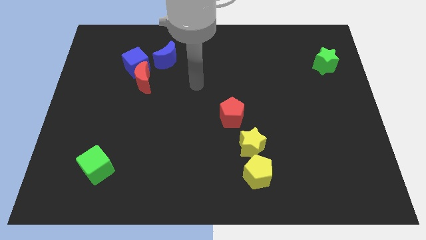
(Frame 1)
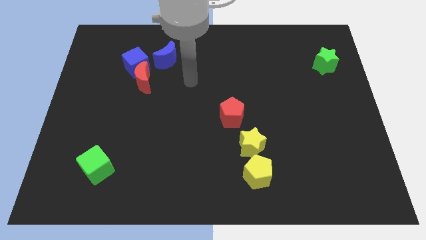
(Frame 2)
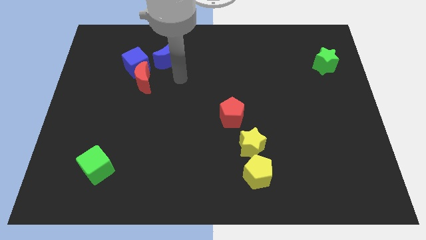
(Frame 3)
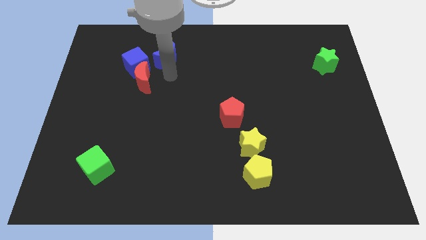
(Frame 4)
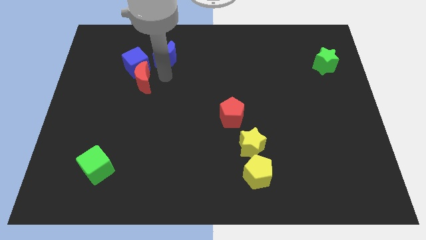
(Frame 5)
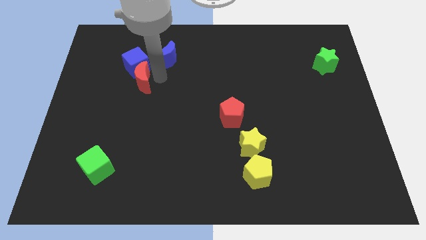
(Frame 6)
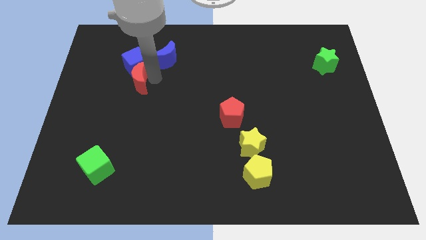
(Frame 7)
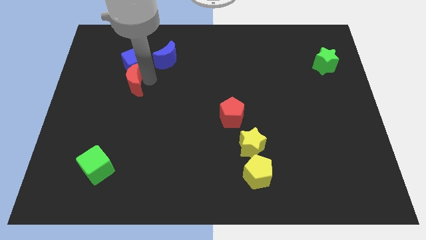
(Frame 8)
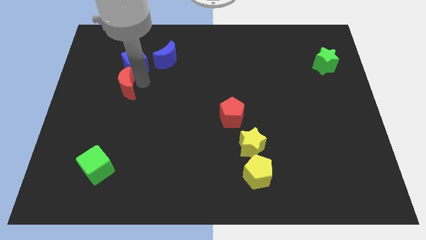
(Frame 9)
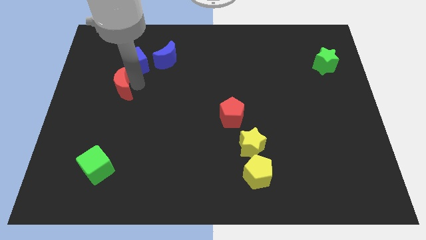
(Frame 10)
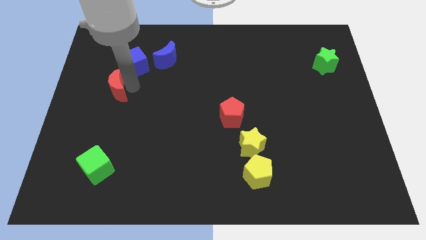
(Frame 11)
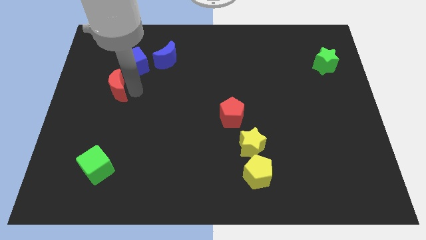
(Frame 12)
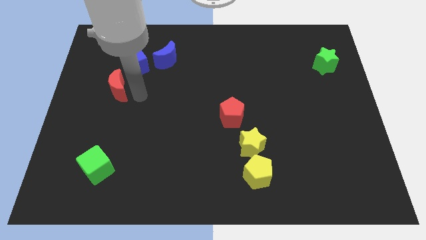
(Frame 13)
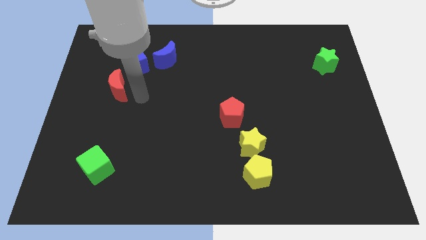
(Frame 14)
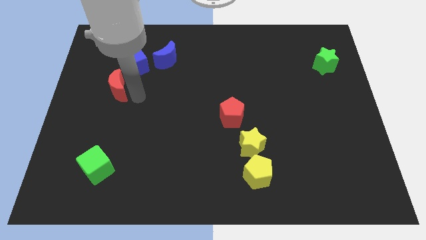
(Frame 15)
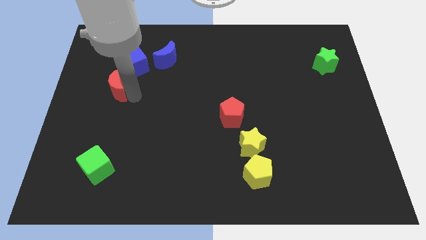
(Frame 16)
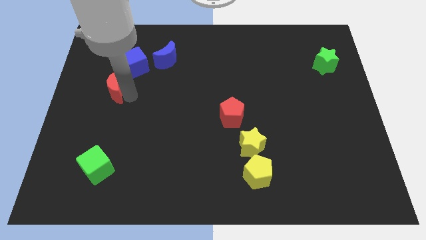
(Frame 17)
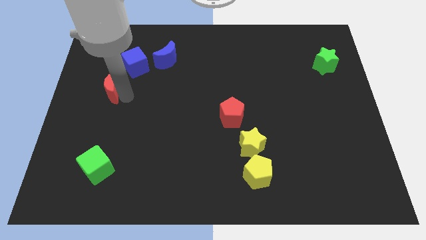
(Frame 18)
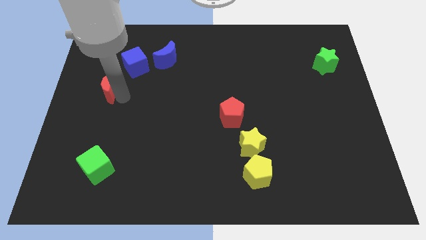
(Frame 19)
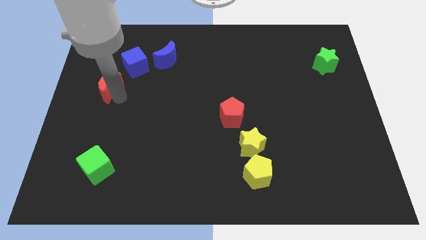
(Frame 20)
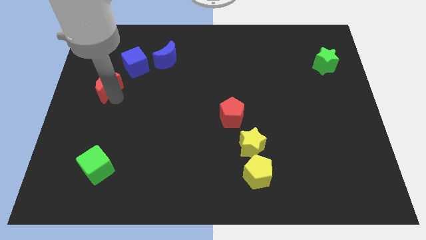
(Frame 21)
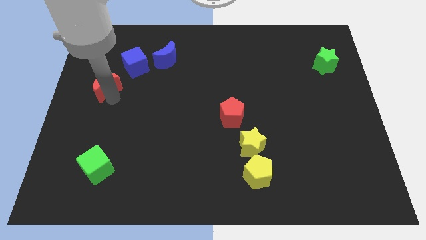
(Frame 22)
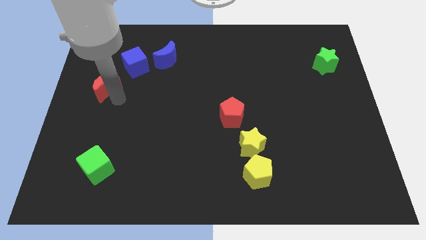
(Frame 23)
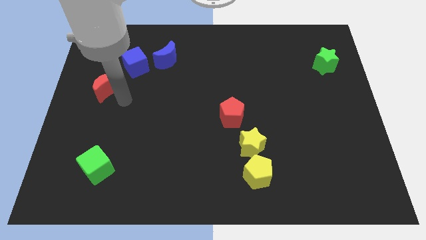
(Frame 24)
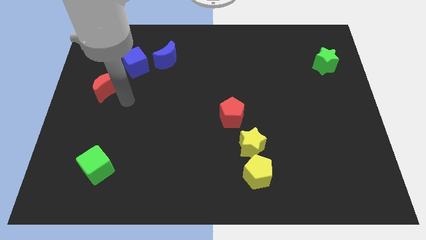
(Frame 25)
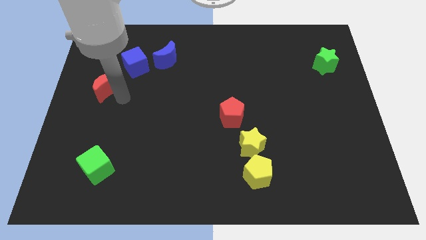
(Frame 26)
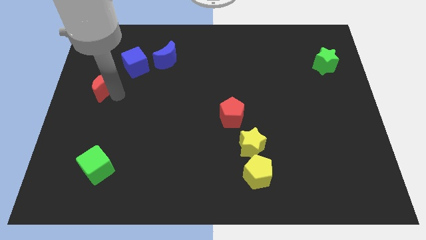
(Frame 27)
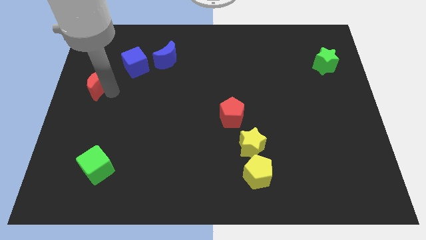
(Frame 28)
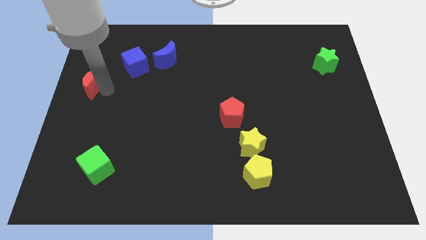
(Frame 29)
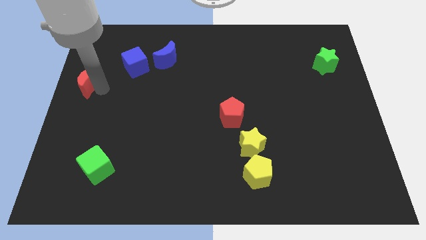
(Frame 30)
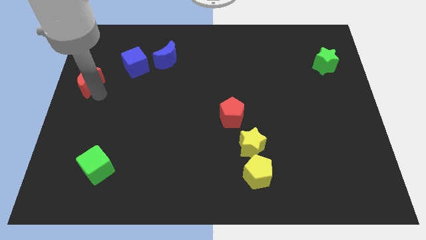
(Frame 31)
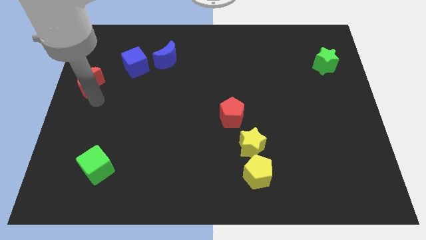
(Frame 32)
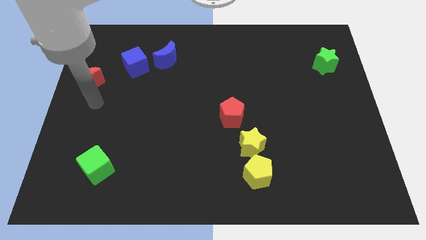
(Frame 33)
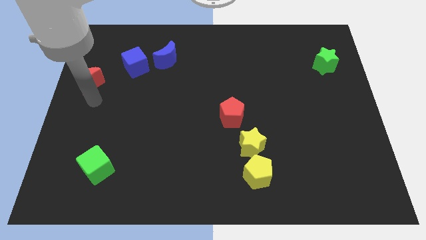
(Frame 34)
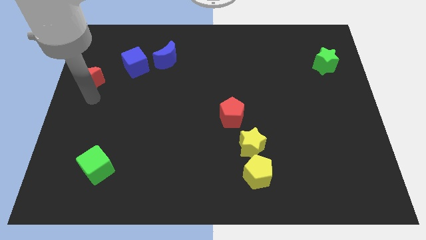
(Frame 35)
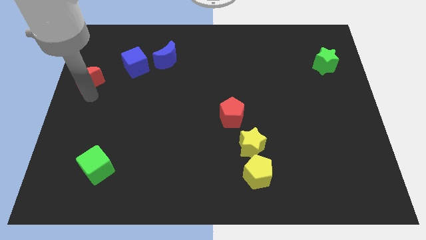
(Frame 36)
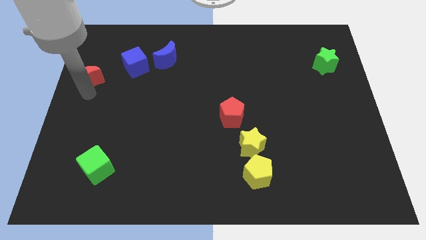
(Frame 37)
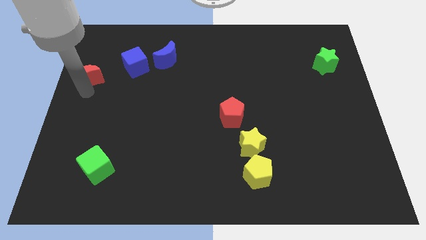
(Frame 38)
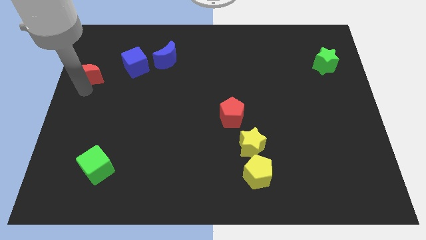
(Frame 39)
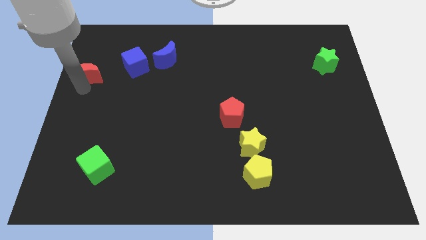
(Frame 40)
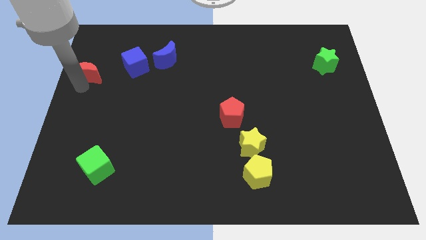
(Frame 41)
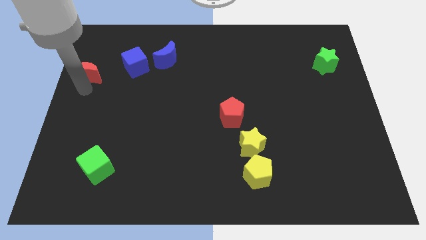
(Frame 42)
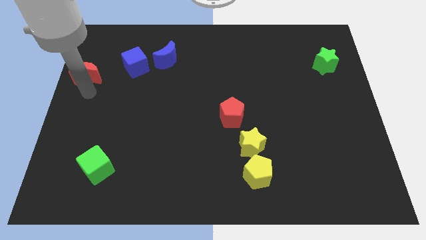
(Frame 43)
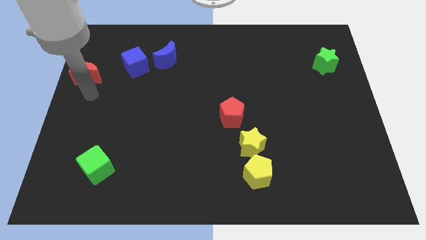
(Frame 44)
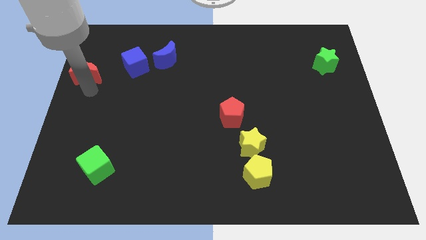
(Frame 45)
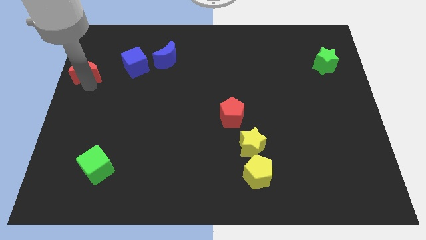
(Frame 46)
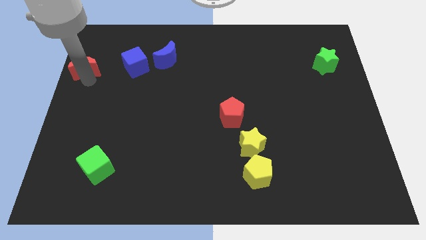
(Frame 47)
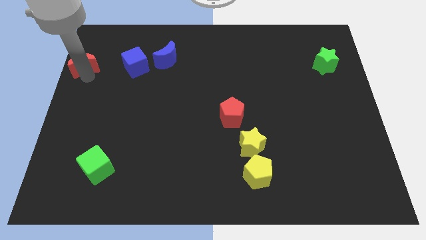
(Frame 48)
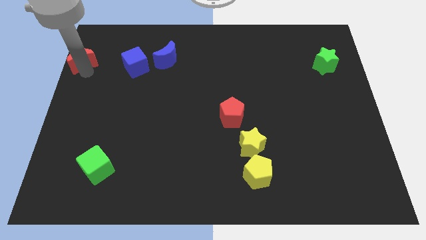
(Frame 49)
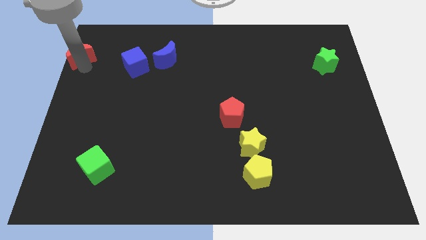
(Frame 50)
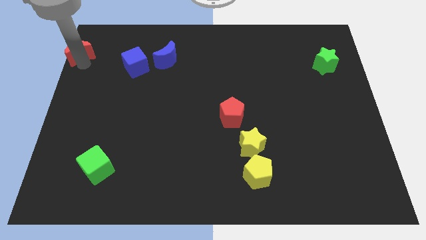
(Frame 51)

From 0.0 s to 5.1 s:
move the red moon to the top left

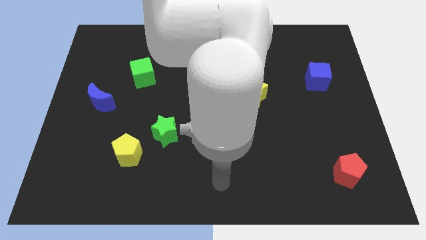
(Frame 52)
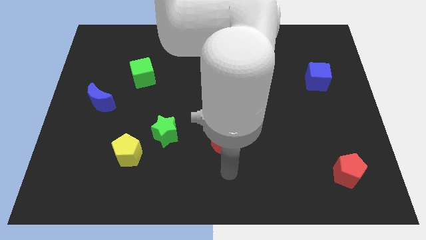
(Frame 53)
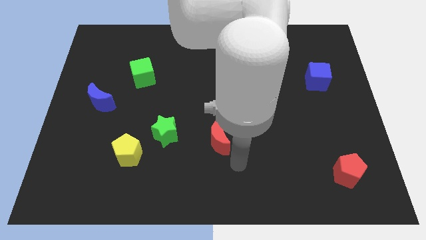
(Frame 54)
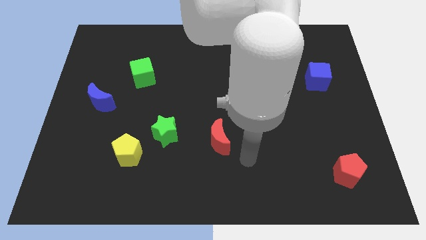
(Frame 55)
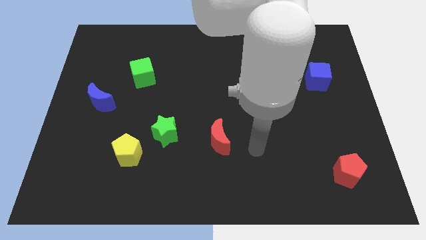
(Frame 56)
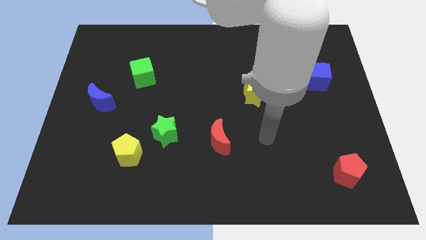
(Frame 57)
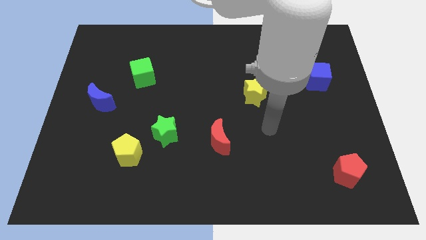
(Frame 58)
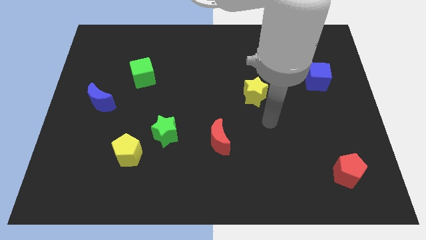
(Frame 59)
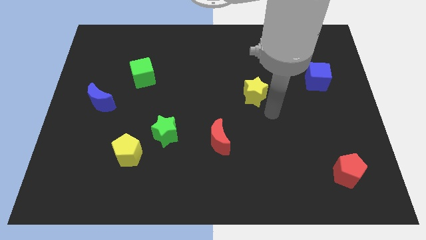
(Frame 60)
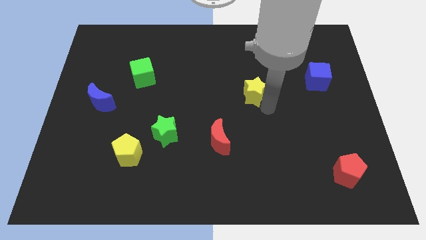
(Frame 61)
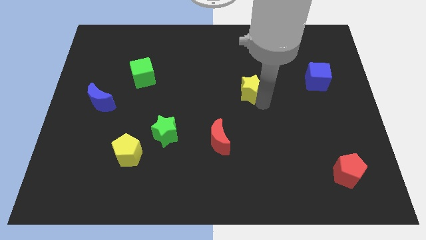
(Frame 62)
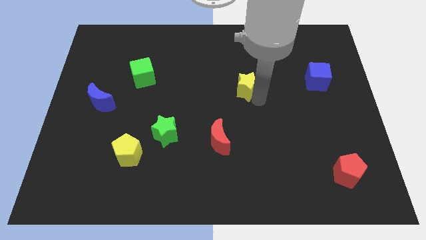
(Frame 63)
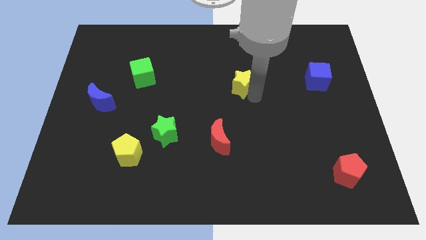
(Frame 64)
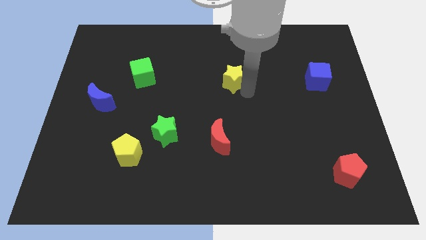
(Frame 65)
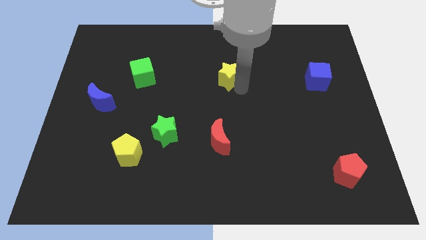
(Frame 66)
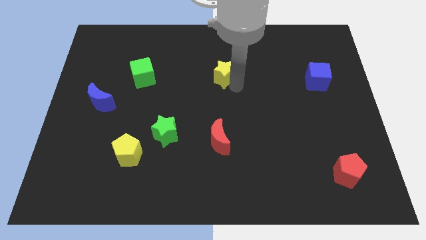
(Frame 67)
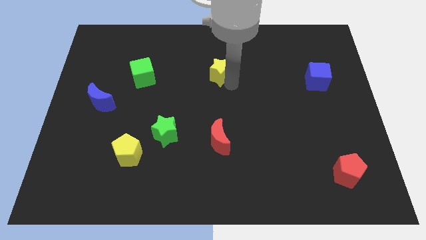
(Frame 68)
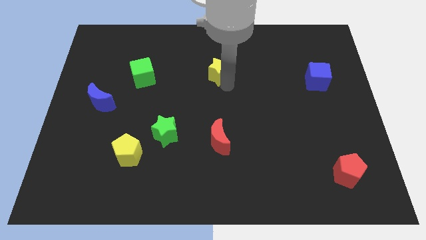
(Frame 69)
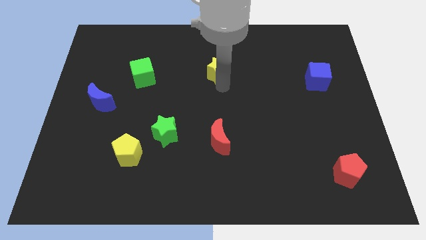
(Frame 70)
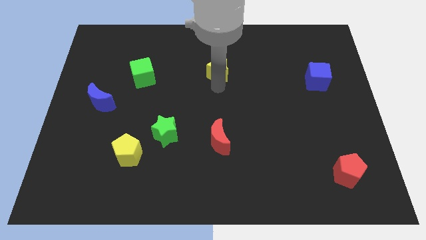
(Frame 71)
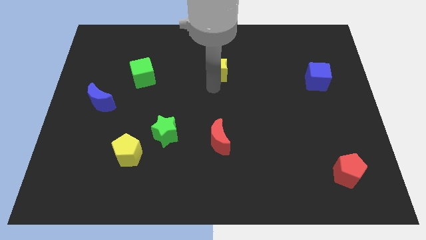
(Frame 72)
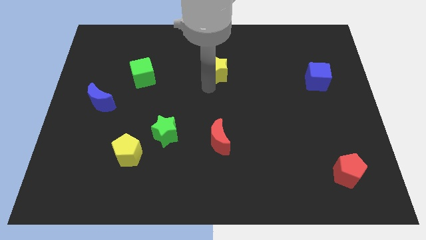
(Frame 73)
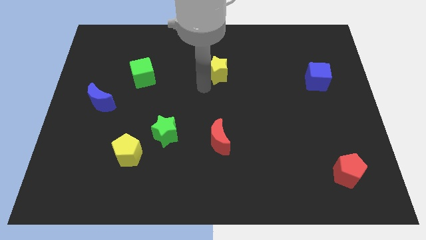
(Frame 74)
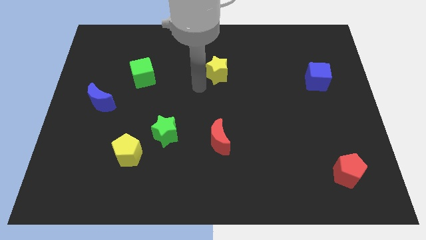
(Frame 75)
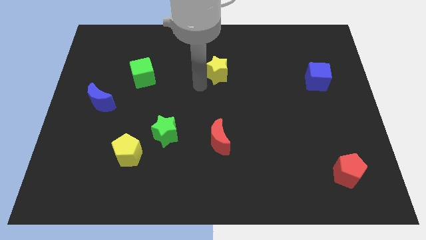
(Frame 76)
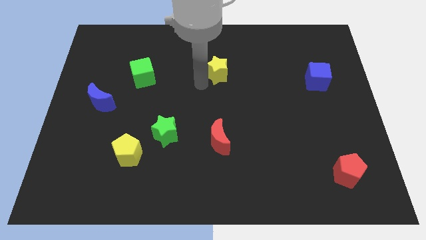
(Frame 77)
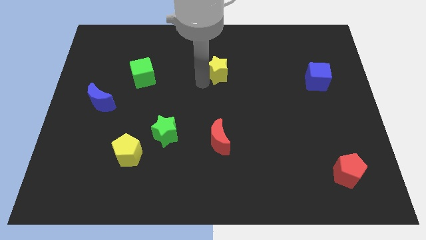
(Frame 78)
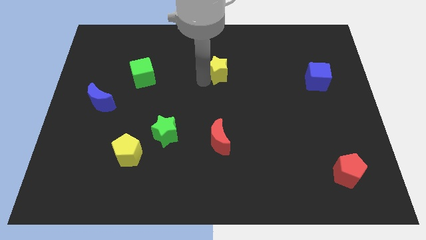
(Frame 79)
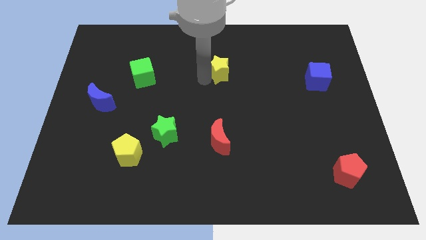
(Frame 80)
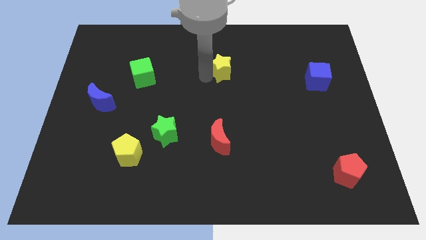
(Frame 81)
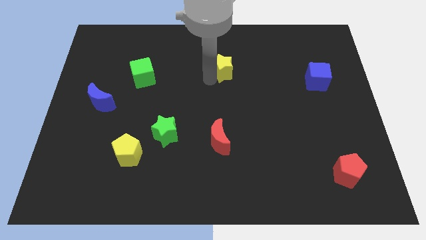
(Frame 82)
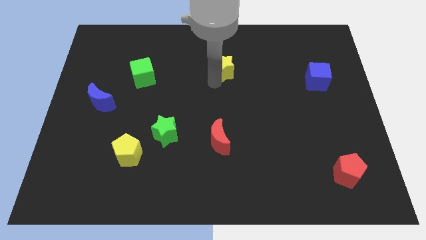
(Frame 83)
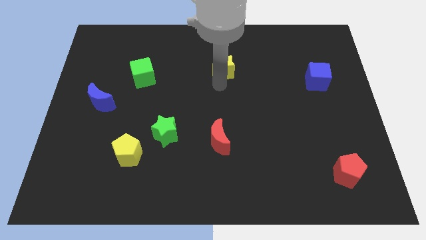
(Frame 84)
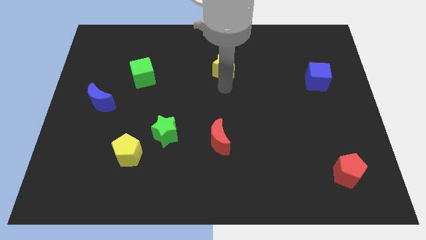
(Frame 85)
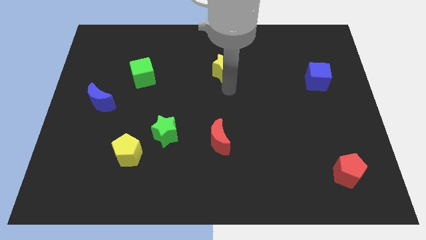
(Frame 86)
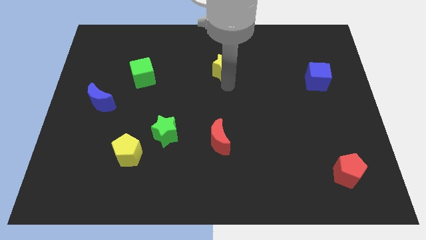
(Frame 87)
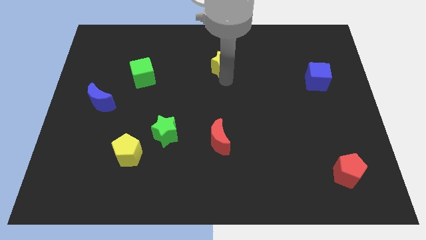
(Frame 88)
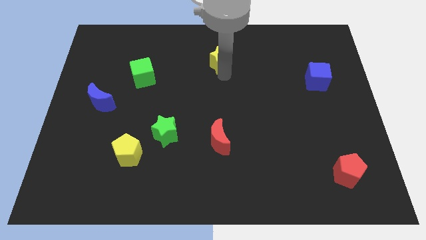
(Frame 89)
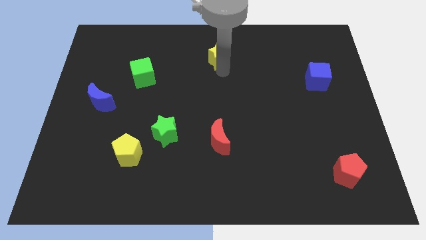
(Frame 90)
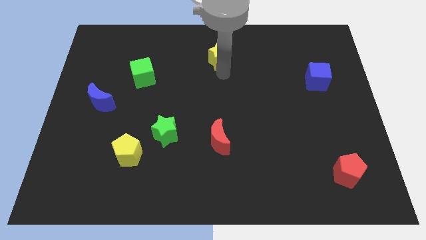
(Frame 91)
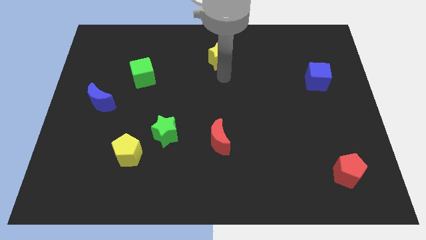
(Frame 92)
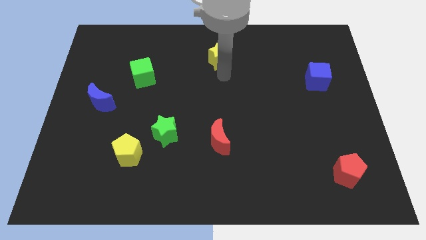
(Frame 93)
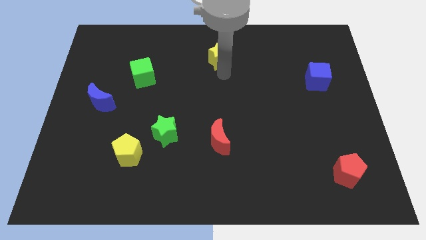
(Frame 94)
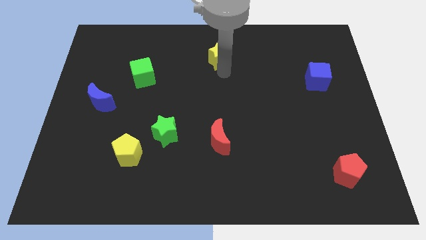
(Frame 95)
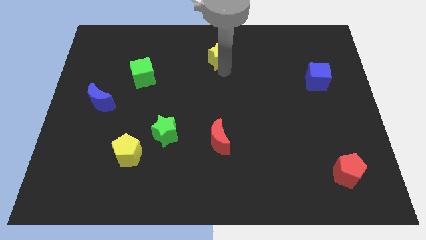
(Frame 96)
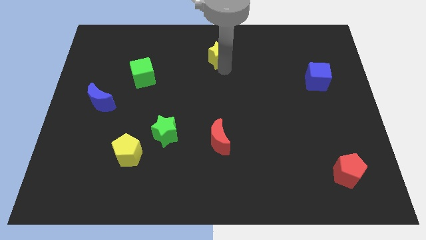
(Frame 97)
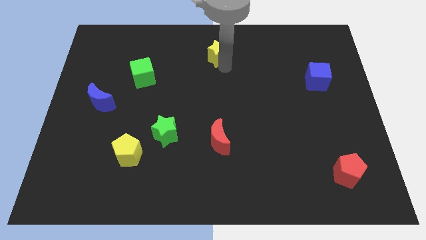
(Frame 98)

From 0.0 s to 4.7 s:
put the yellow star to the top side
